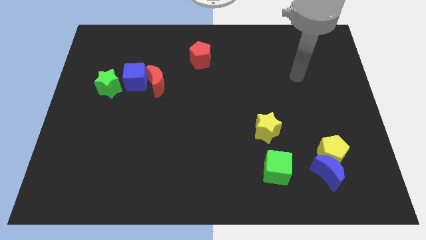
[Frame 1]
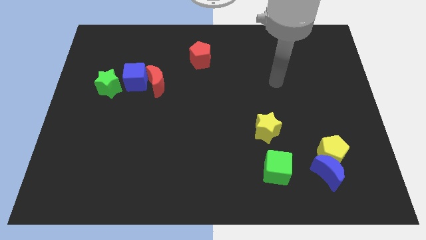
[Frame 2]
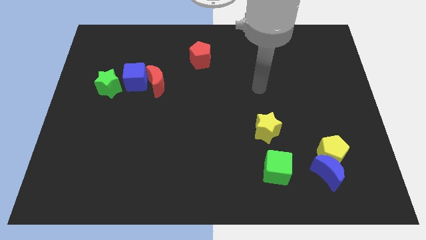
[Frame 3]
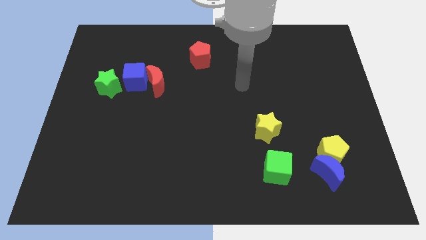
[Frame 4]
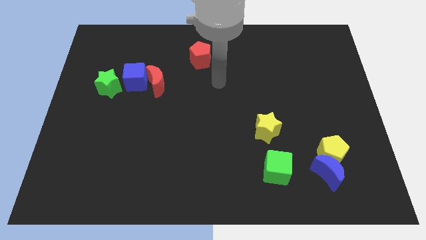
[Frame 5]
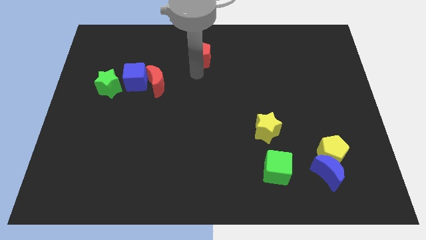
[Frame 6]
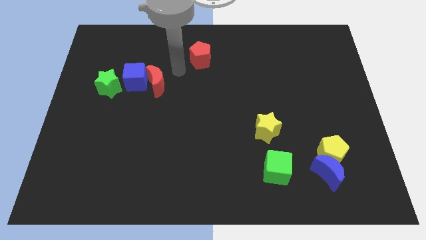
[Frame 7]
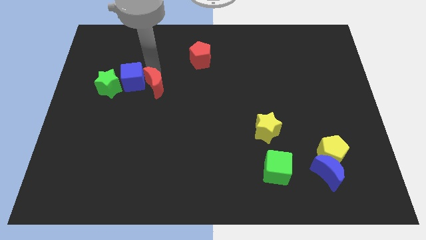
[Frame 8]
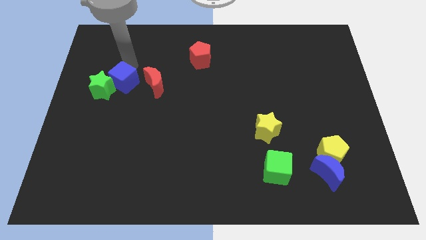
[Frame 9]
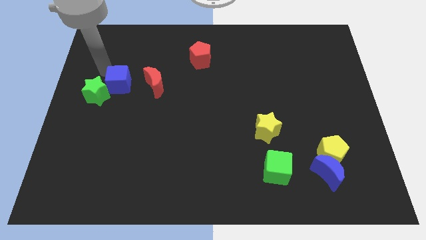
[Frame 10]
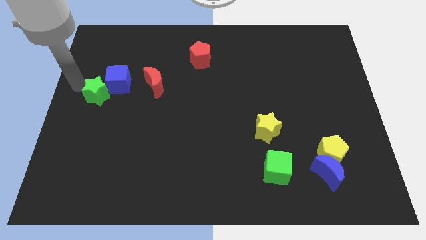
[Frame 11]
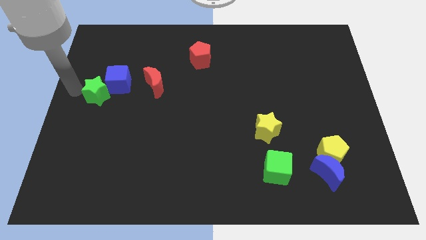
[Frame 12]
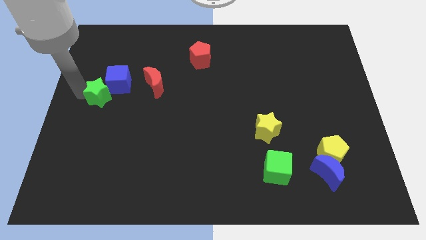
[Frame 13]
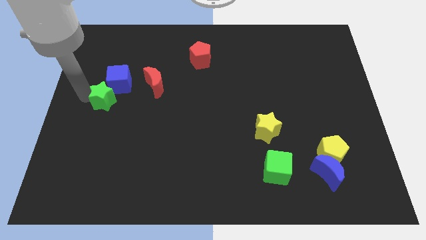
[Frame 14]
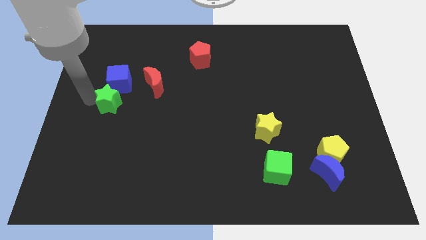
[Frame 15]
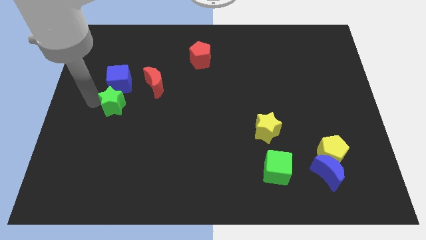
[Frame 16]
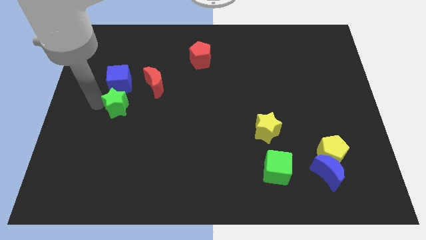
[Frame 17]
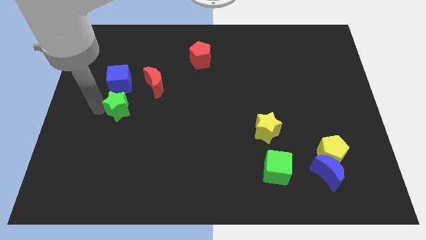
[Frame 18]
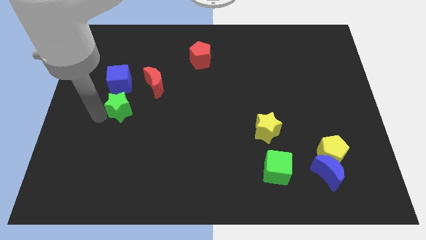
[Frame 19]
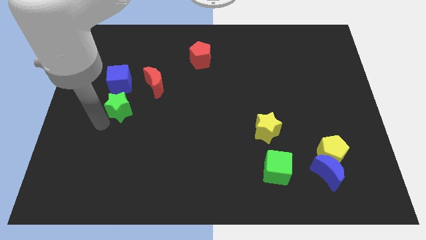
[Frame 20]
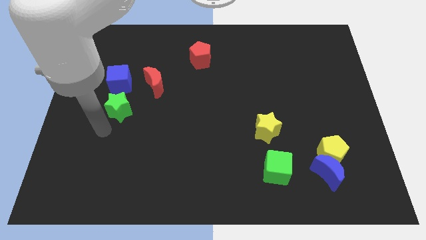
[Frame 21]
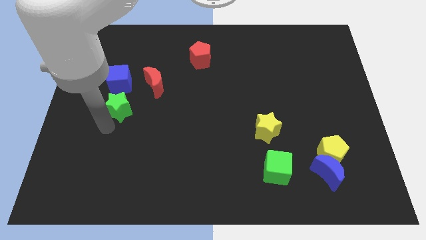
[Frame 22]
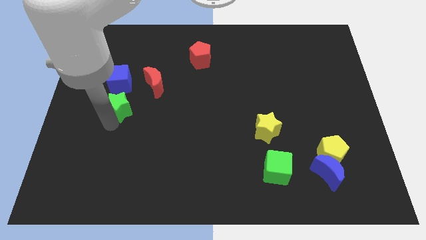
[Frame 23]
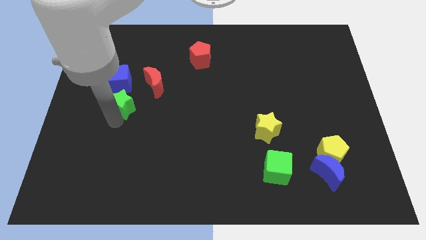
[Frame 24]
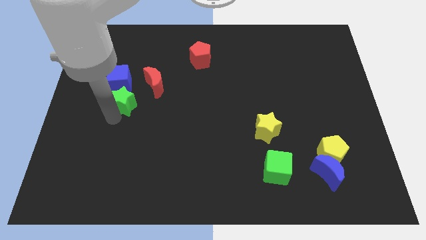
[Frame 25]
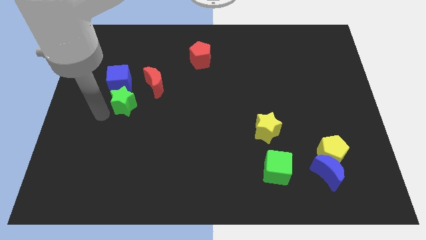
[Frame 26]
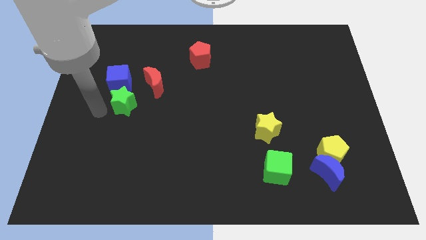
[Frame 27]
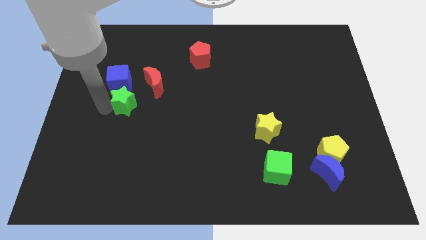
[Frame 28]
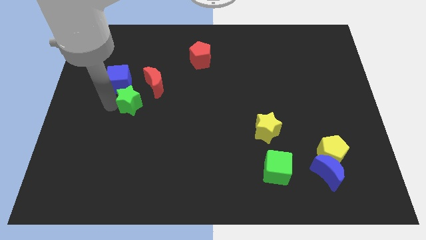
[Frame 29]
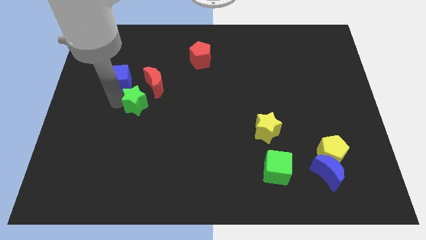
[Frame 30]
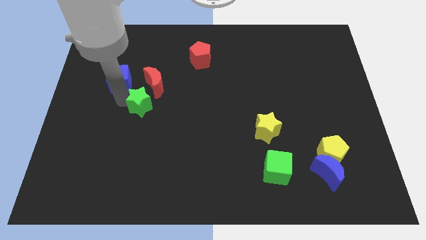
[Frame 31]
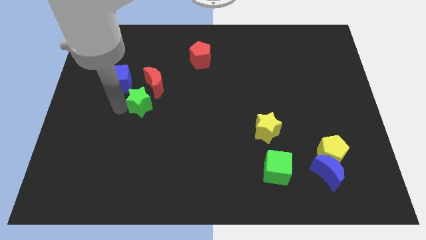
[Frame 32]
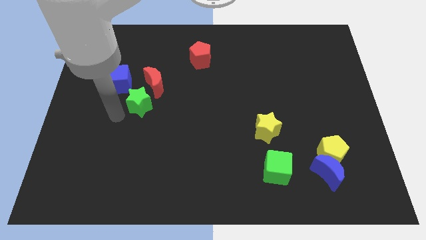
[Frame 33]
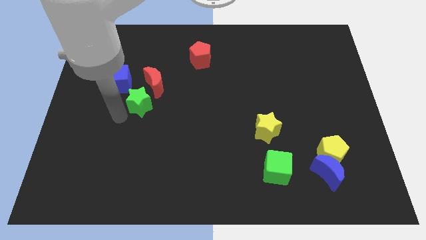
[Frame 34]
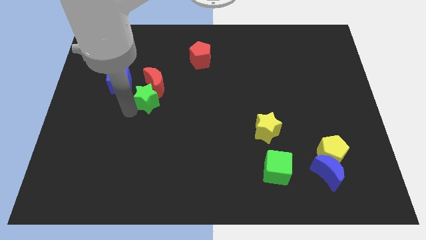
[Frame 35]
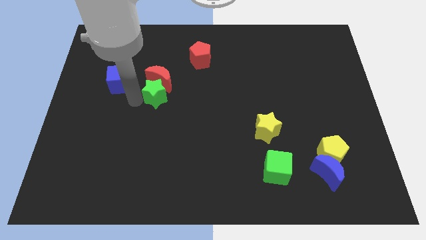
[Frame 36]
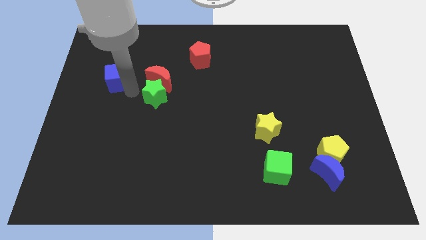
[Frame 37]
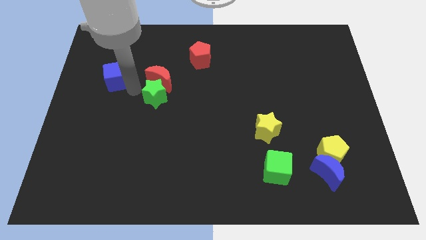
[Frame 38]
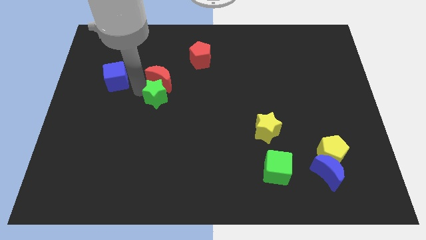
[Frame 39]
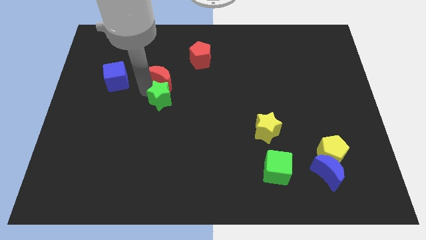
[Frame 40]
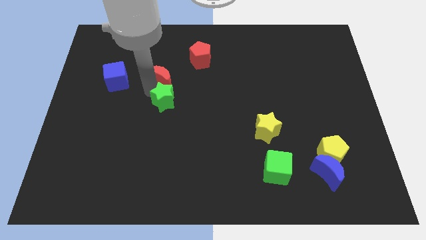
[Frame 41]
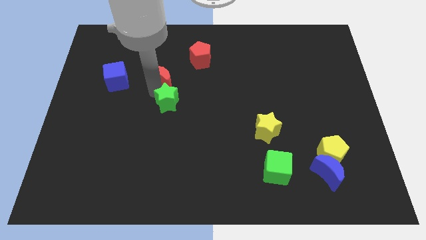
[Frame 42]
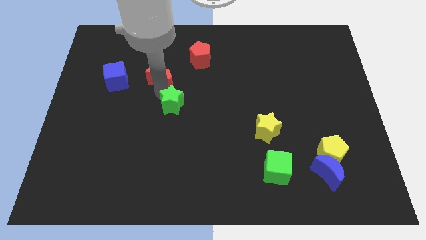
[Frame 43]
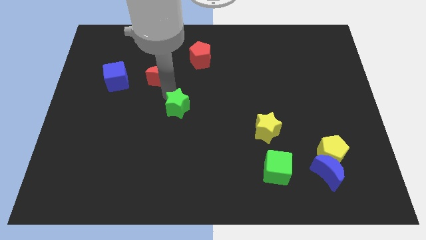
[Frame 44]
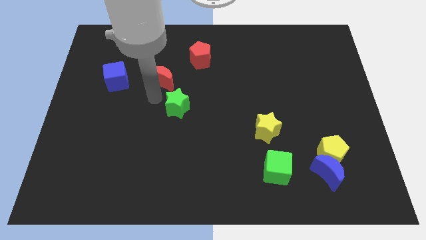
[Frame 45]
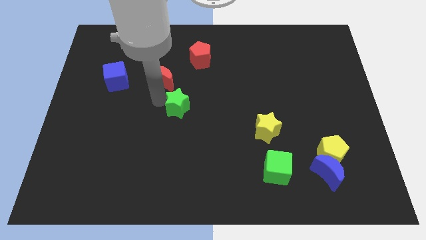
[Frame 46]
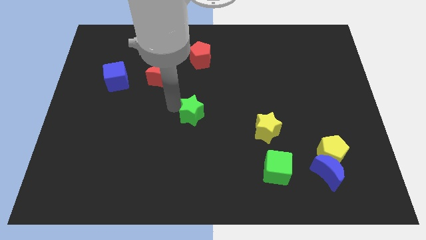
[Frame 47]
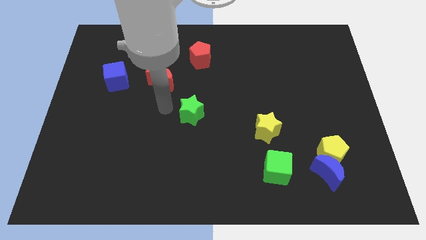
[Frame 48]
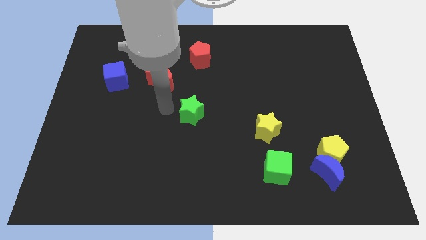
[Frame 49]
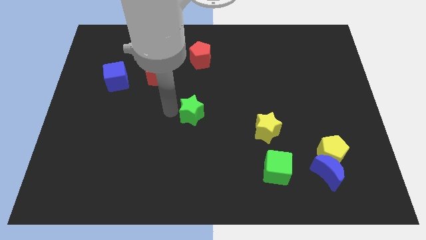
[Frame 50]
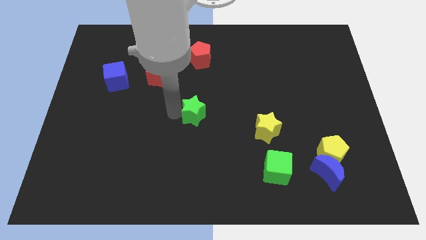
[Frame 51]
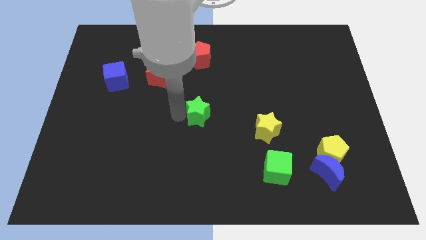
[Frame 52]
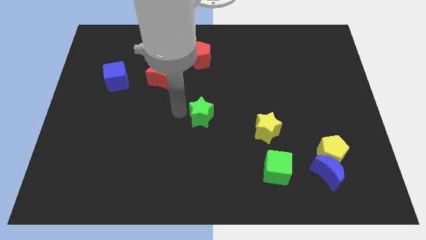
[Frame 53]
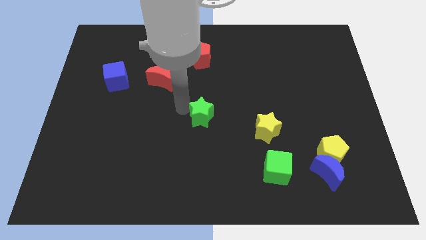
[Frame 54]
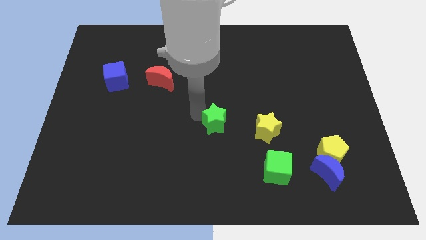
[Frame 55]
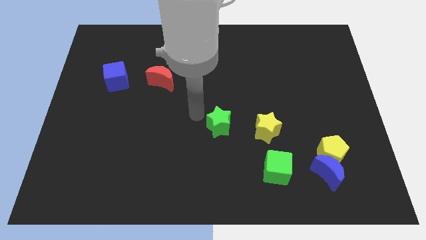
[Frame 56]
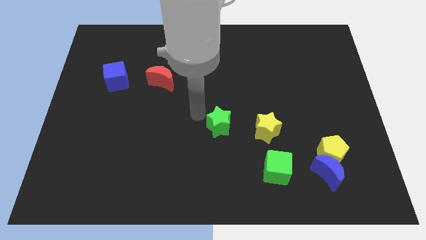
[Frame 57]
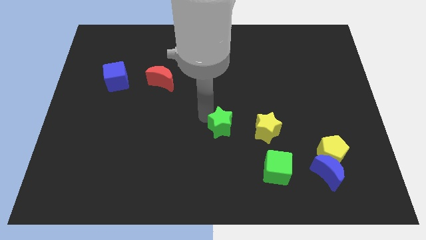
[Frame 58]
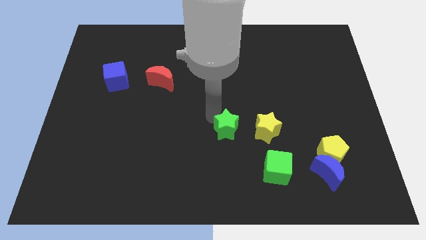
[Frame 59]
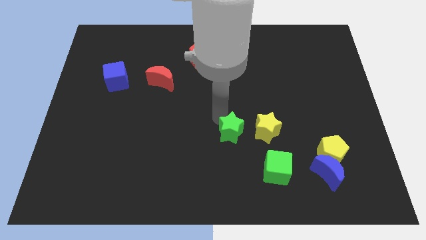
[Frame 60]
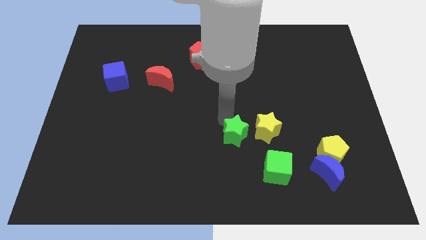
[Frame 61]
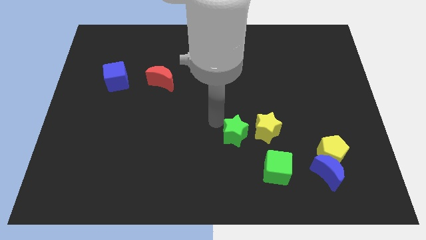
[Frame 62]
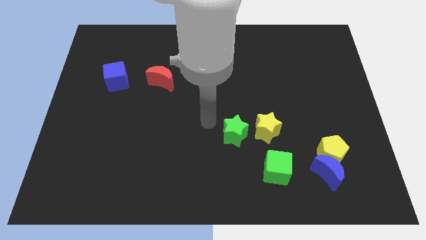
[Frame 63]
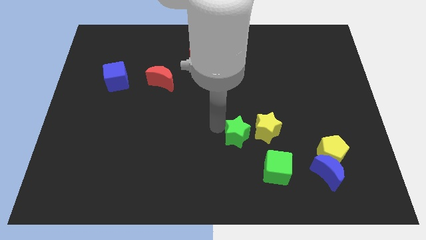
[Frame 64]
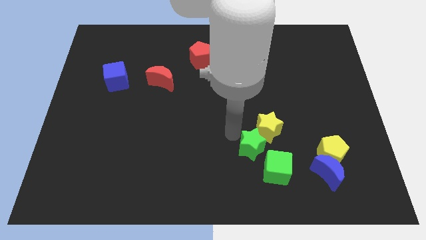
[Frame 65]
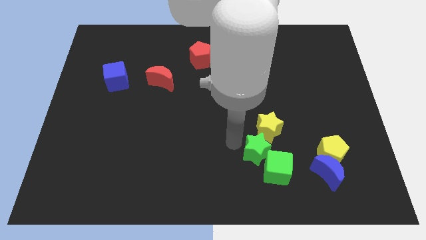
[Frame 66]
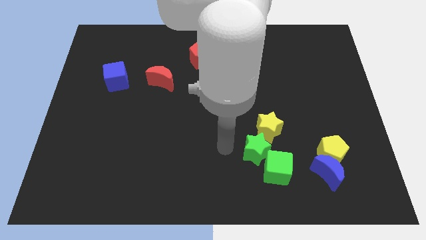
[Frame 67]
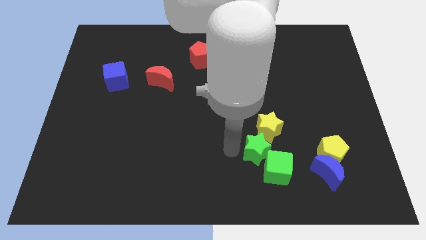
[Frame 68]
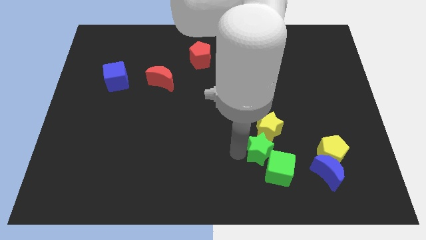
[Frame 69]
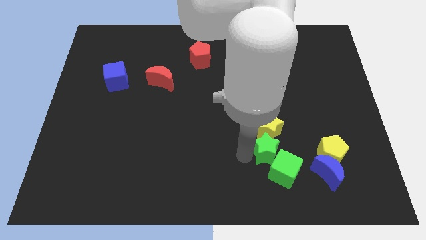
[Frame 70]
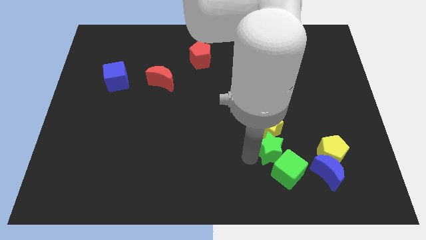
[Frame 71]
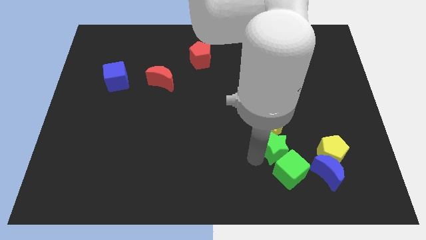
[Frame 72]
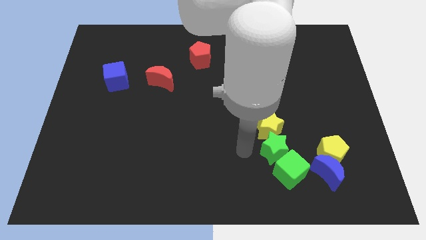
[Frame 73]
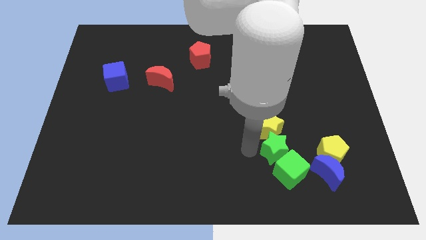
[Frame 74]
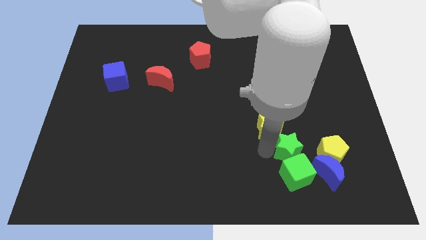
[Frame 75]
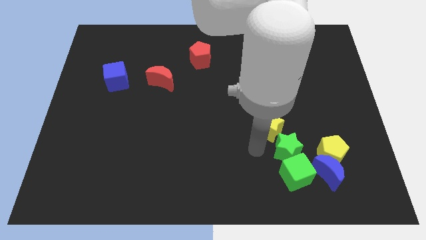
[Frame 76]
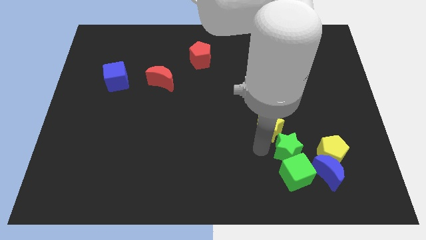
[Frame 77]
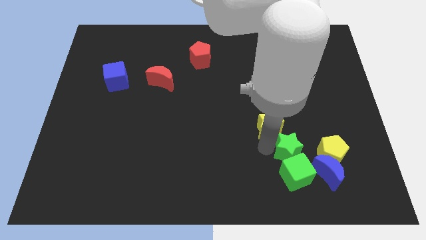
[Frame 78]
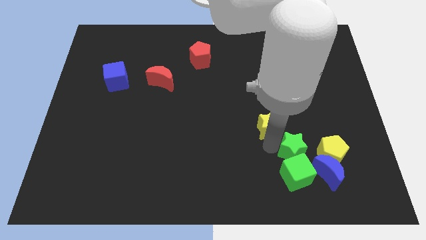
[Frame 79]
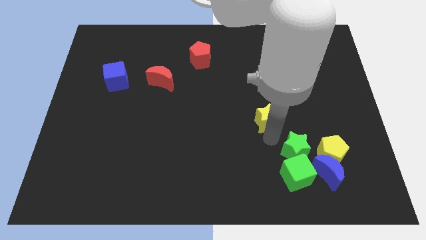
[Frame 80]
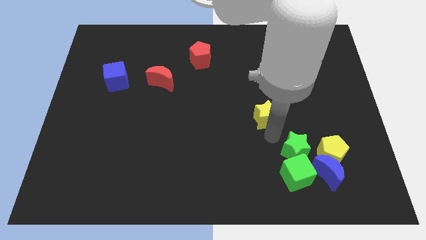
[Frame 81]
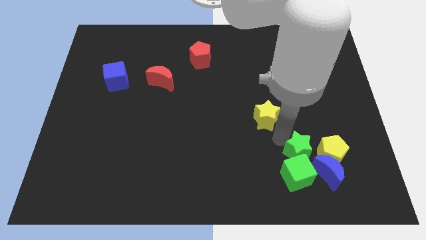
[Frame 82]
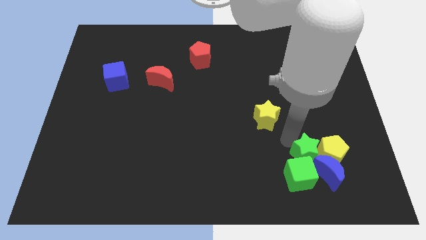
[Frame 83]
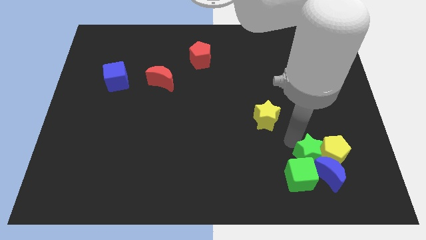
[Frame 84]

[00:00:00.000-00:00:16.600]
push the green star next to the blue moon
